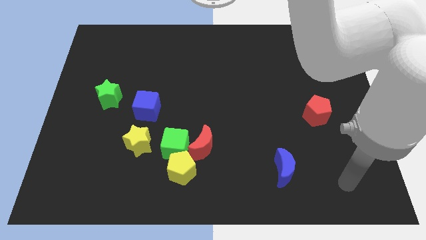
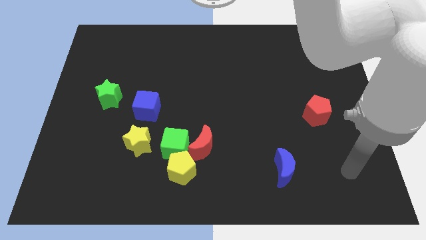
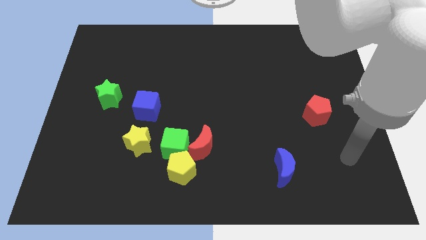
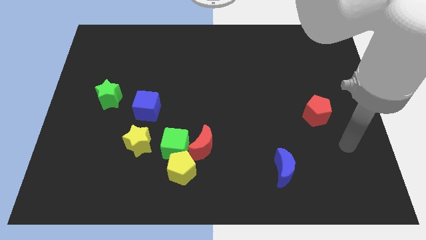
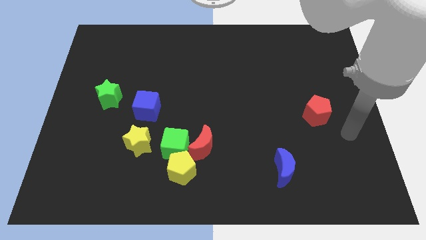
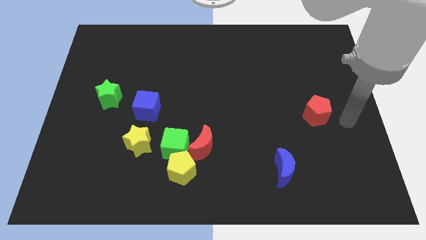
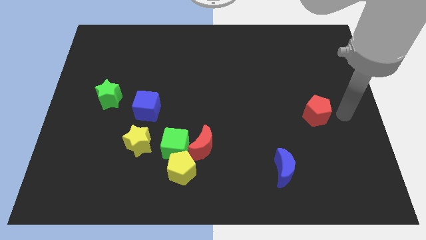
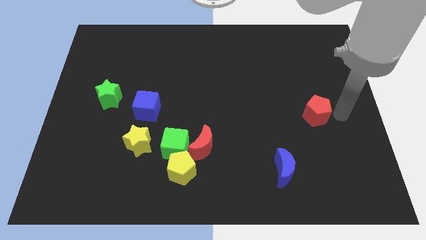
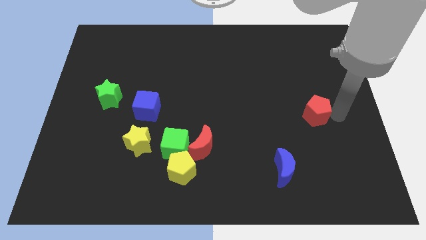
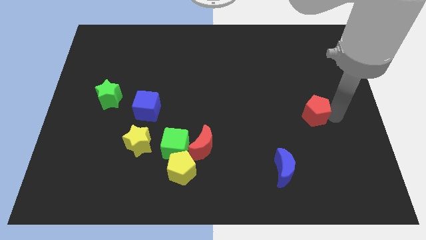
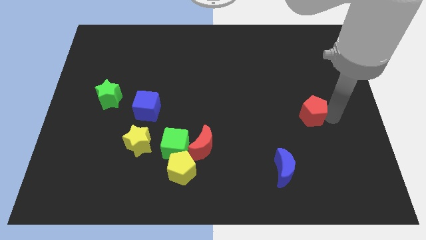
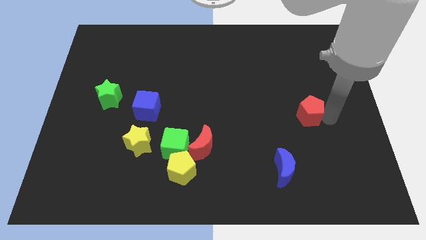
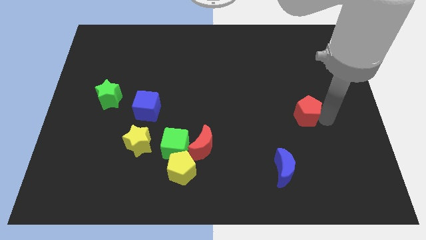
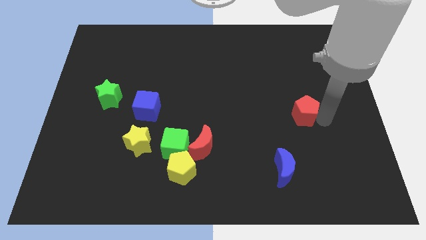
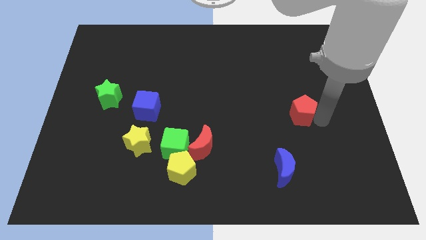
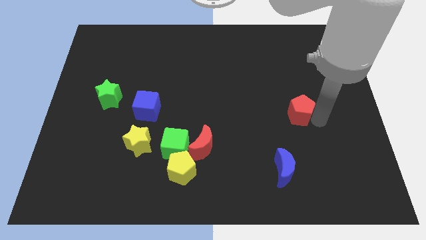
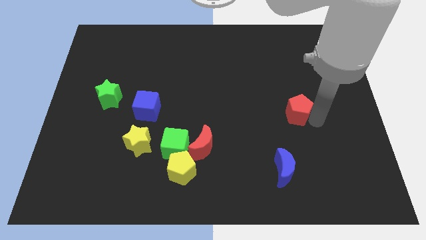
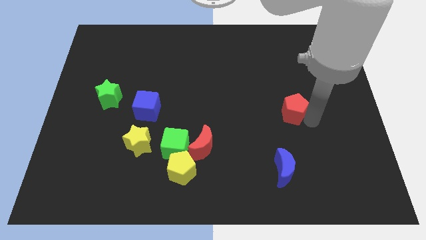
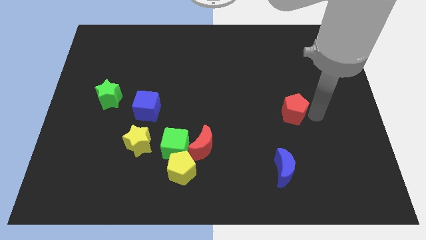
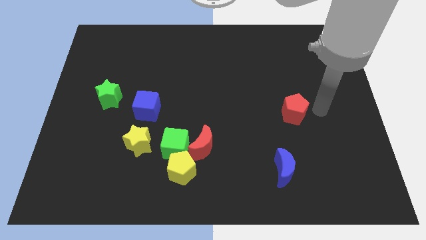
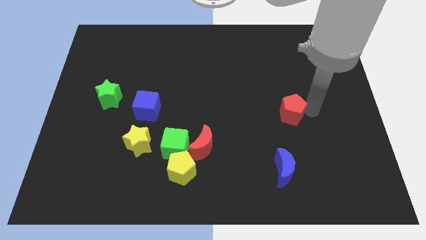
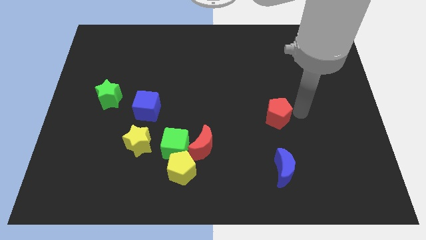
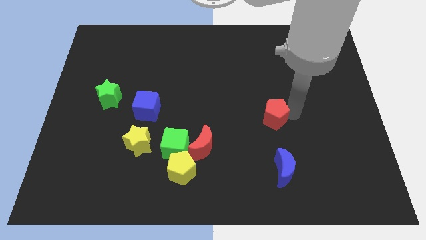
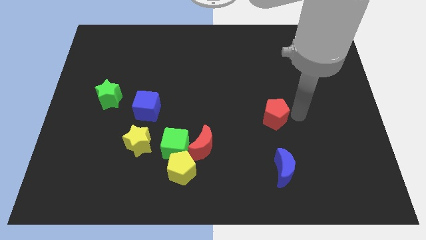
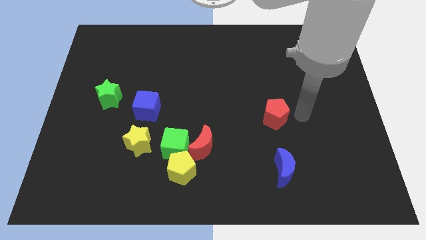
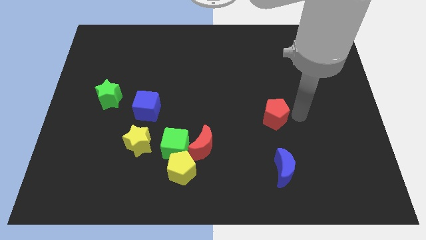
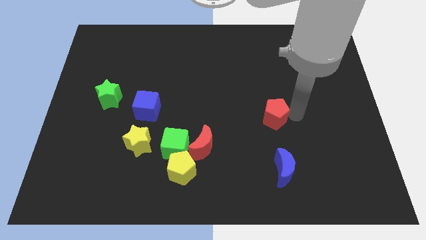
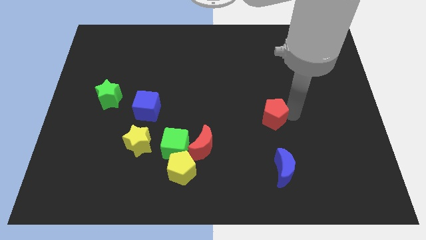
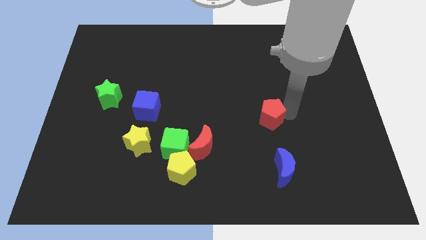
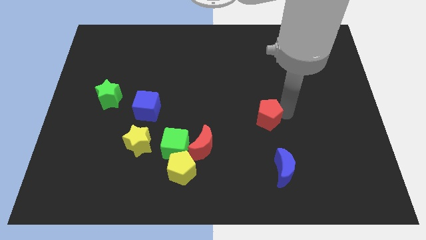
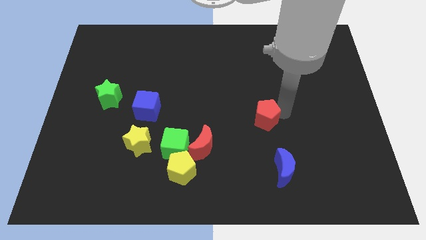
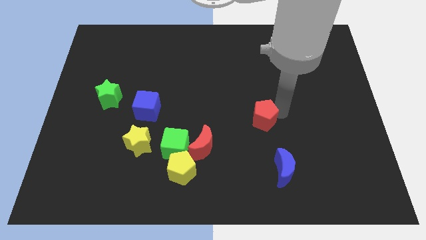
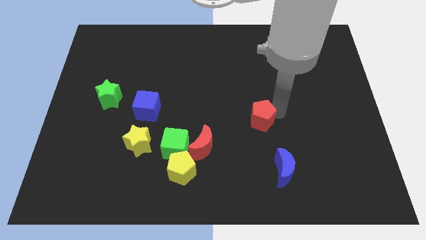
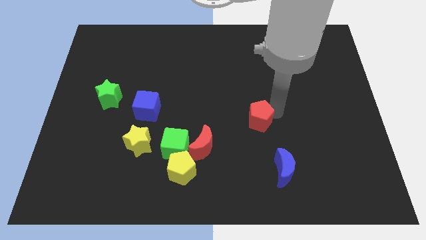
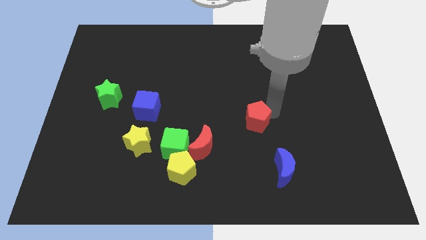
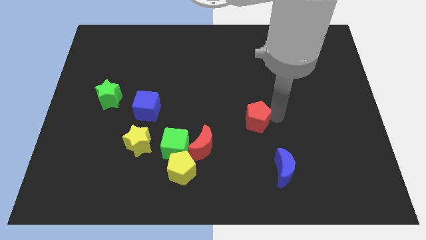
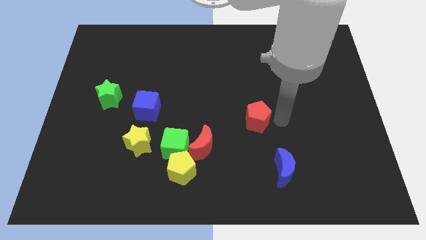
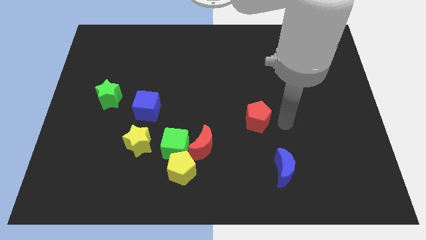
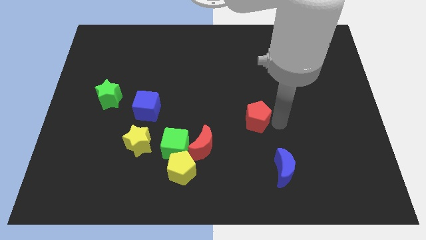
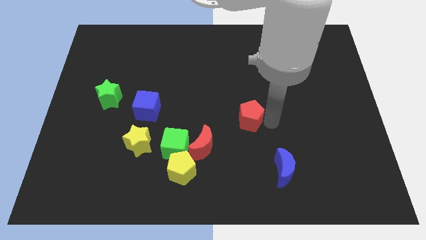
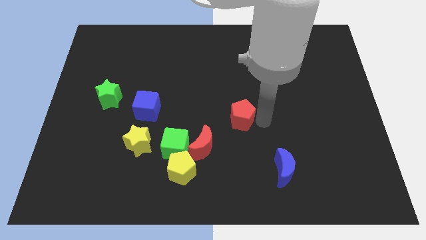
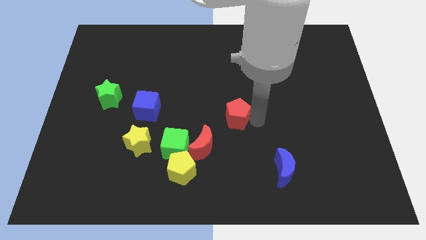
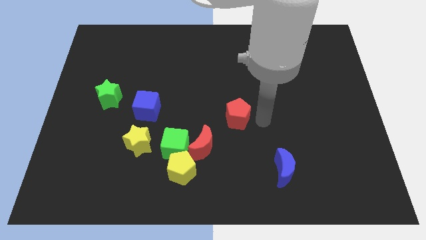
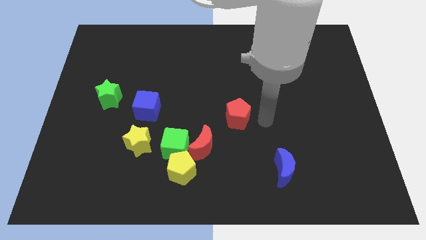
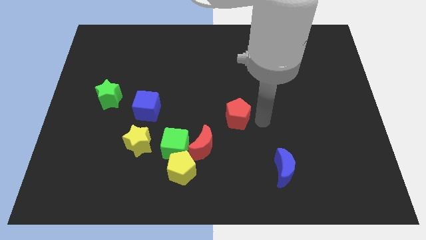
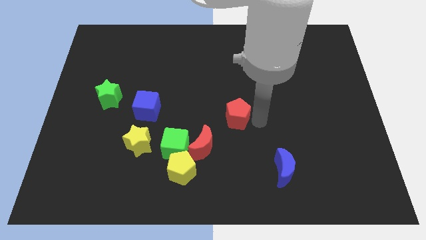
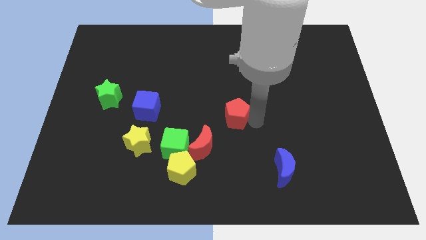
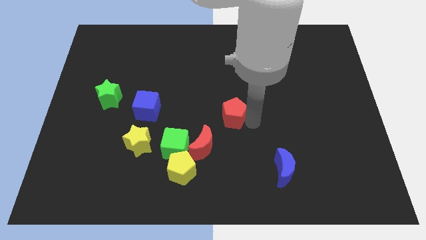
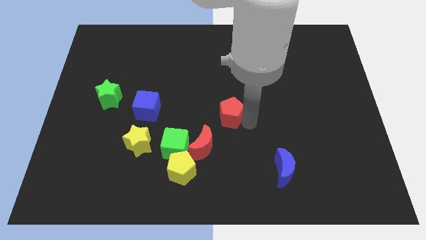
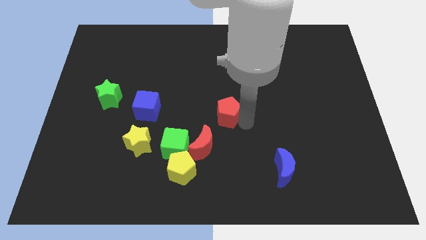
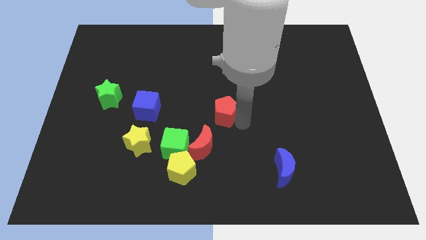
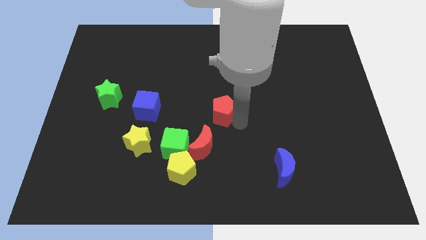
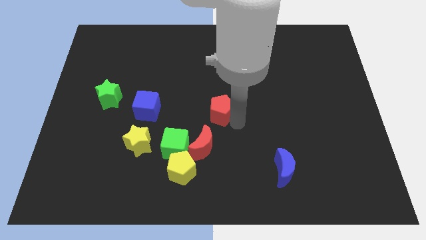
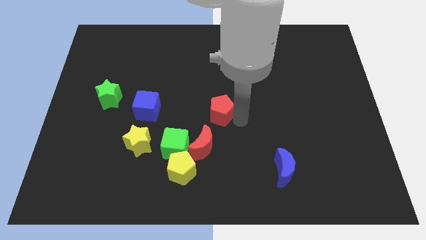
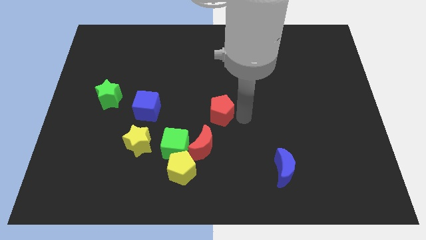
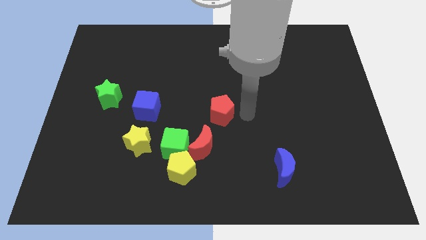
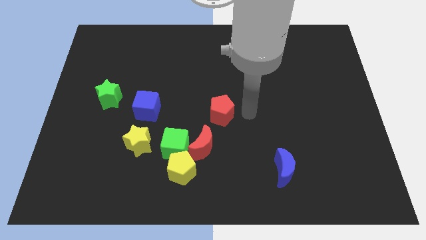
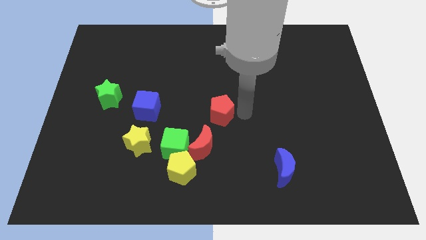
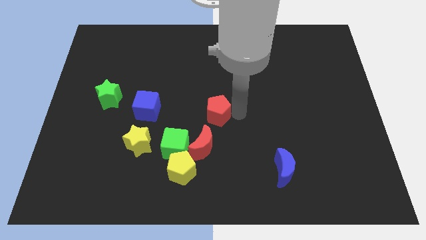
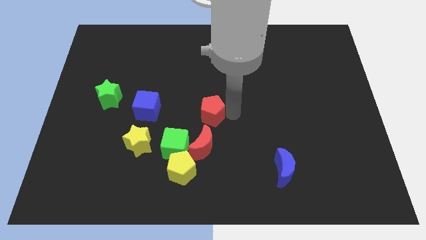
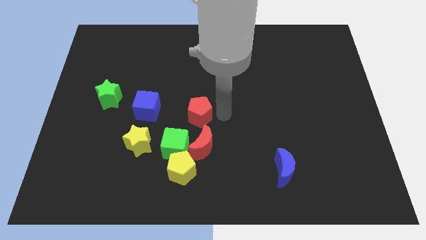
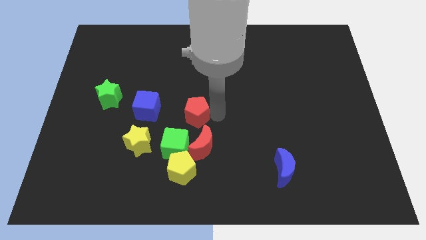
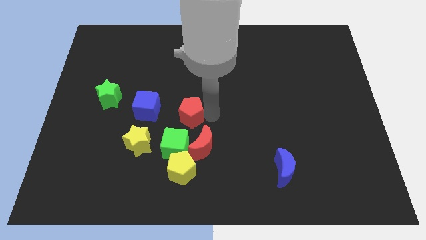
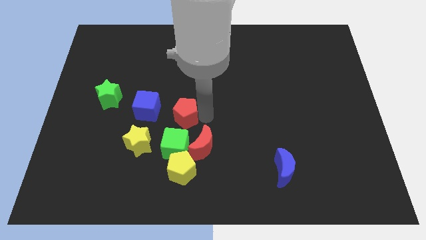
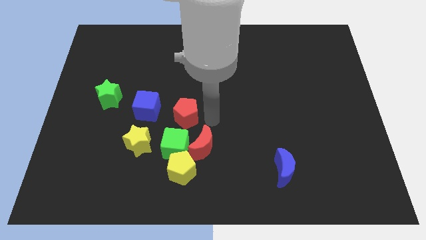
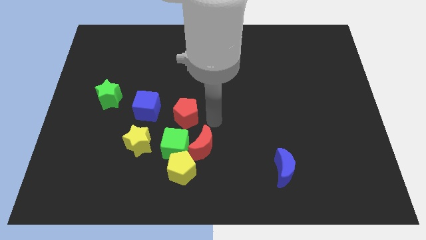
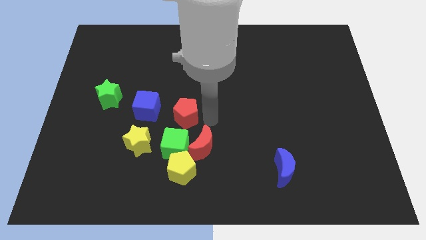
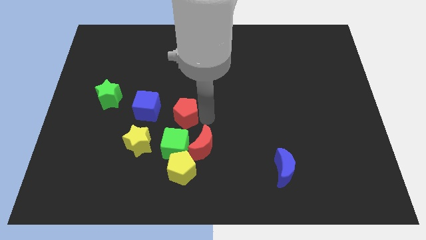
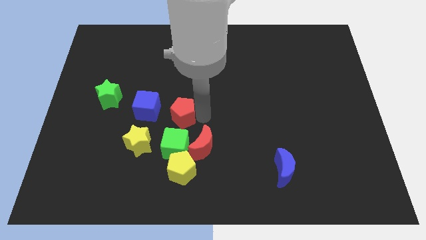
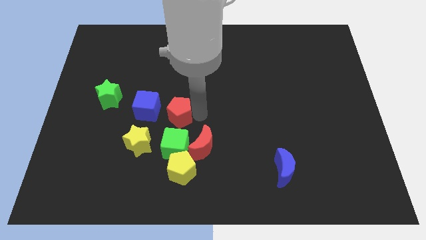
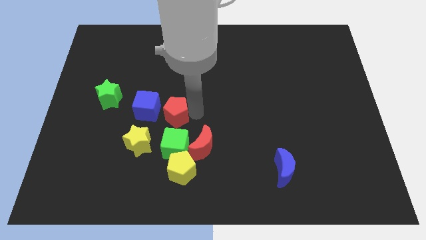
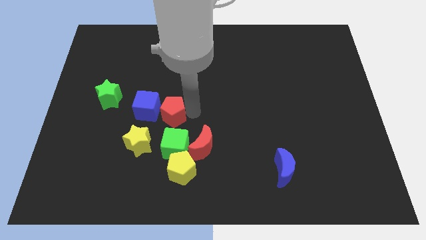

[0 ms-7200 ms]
put the red pentagon to the blue cube
